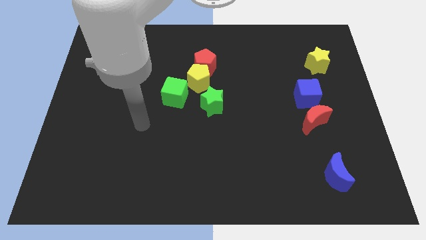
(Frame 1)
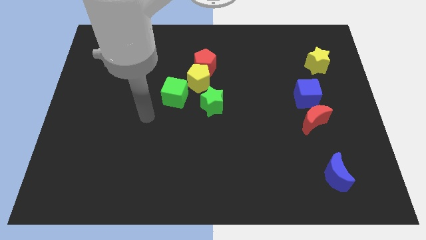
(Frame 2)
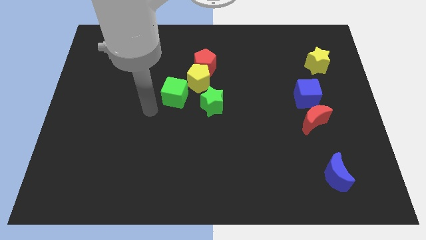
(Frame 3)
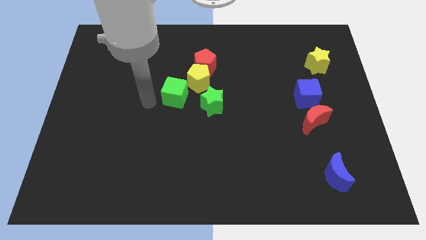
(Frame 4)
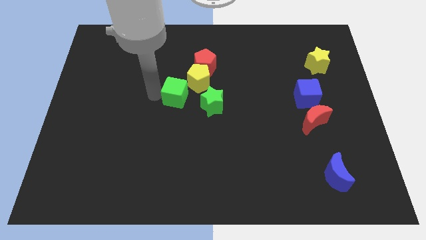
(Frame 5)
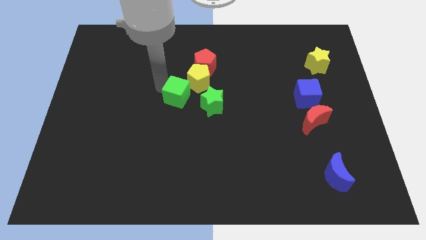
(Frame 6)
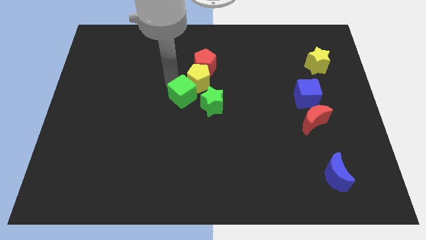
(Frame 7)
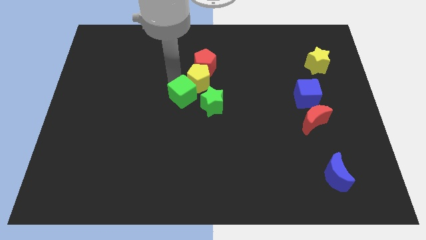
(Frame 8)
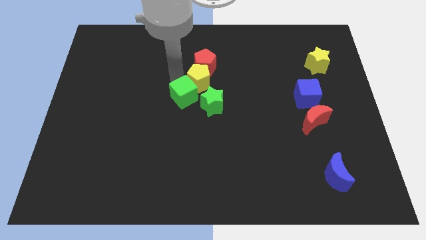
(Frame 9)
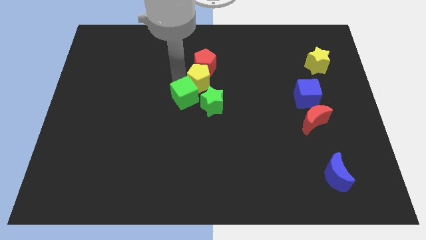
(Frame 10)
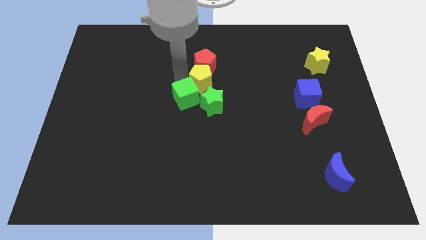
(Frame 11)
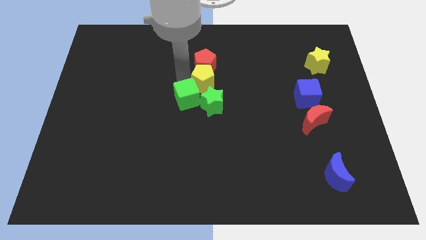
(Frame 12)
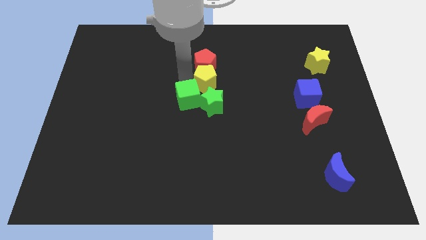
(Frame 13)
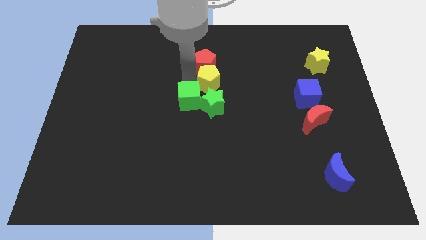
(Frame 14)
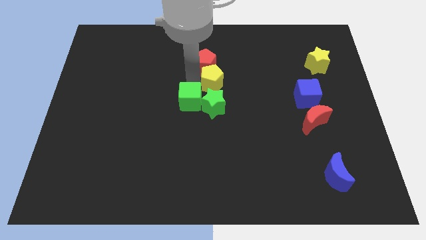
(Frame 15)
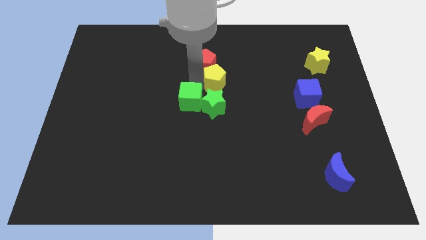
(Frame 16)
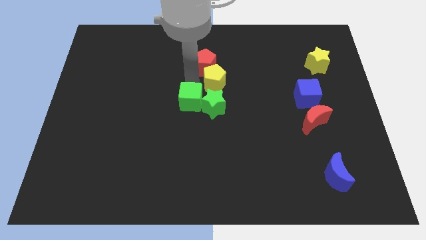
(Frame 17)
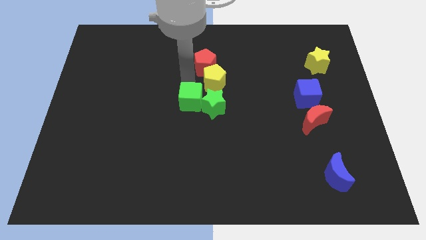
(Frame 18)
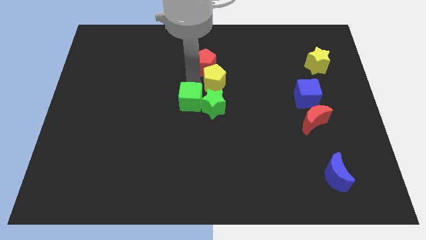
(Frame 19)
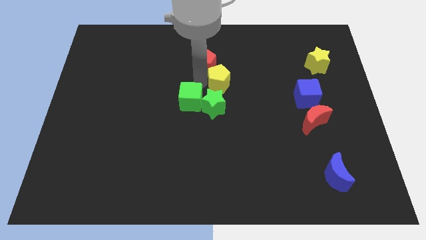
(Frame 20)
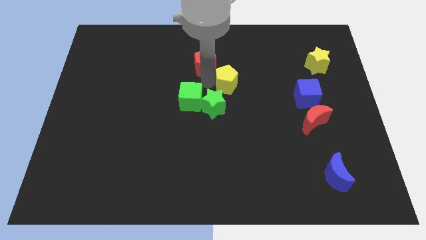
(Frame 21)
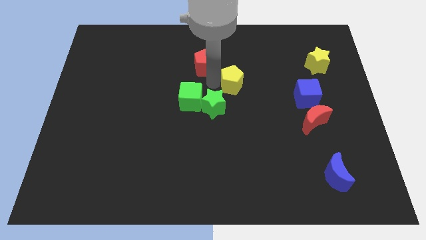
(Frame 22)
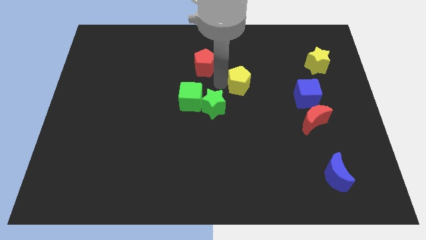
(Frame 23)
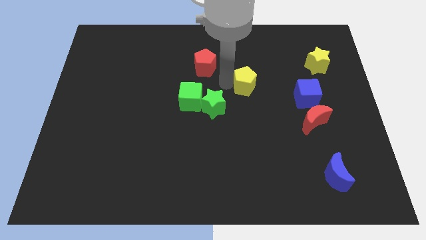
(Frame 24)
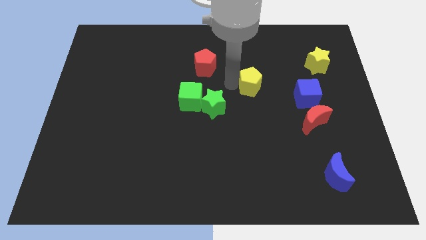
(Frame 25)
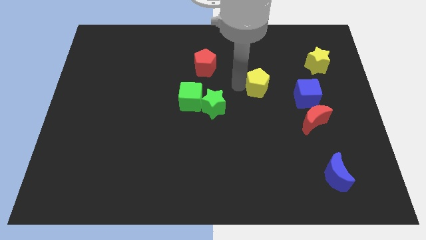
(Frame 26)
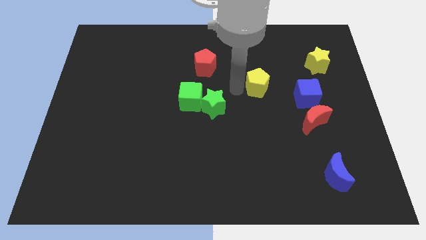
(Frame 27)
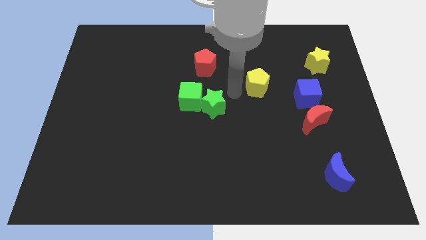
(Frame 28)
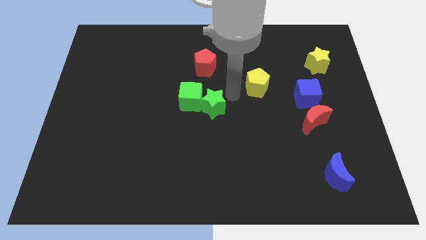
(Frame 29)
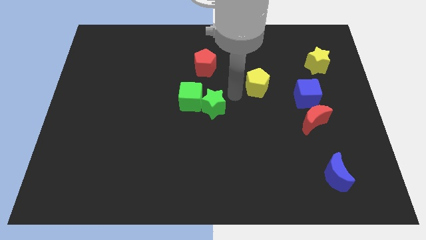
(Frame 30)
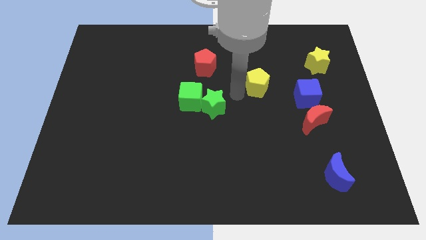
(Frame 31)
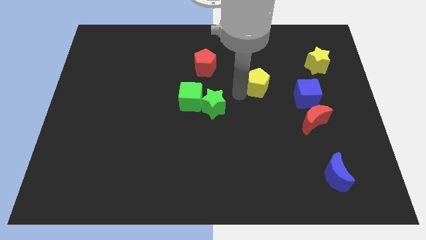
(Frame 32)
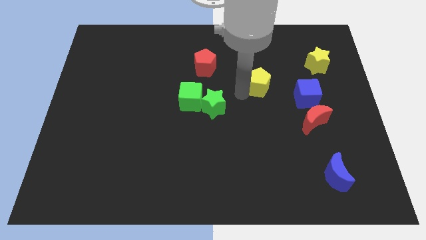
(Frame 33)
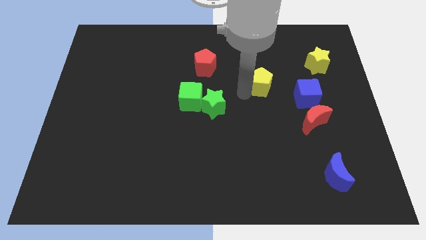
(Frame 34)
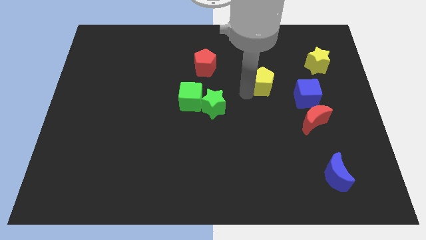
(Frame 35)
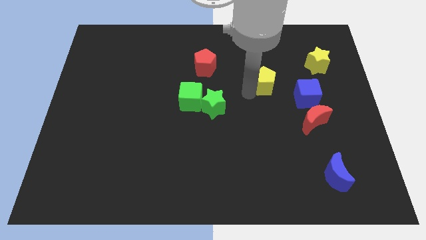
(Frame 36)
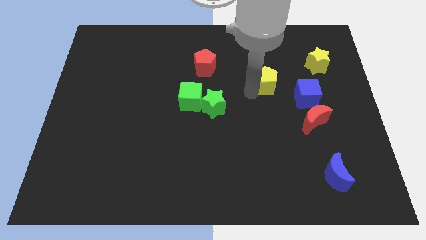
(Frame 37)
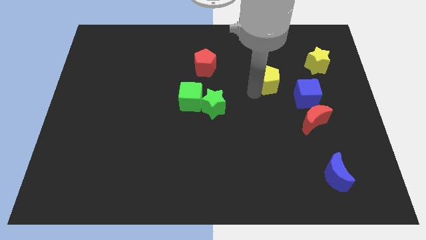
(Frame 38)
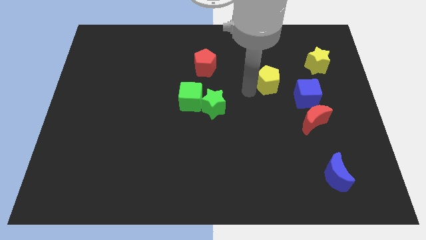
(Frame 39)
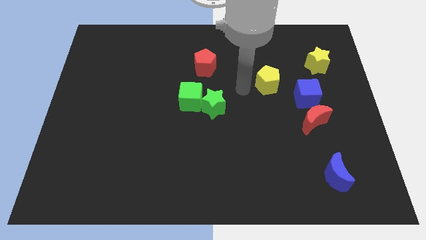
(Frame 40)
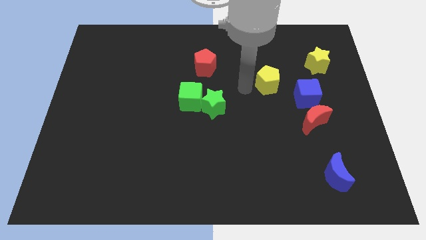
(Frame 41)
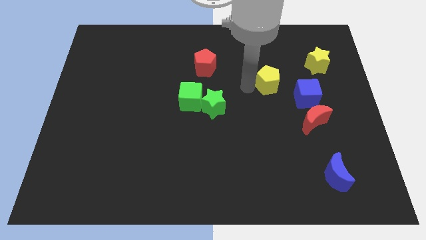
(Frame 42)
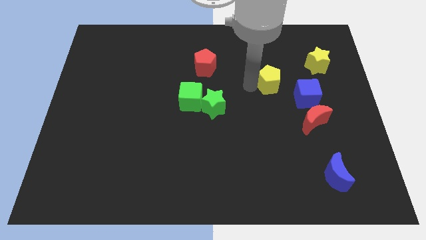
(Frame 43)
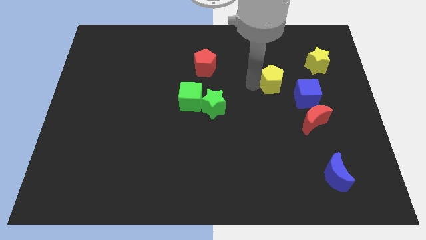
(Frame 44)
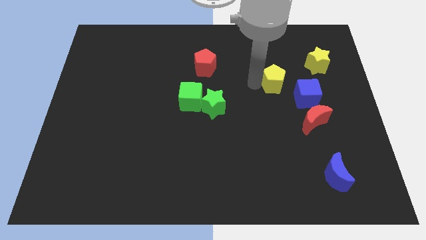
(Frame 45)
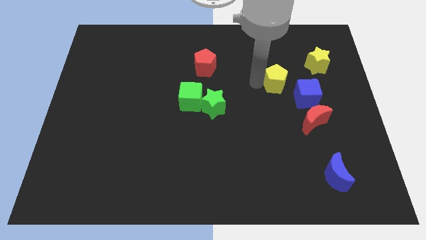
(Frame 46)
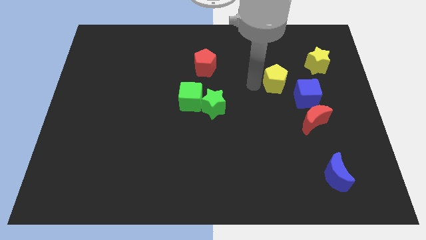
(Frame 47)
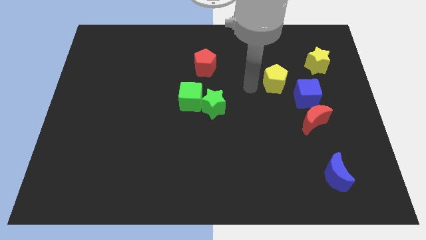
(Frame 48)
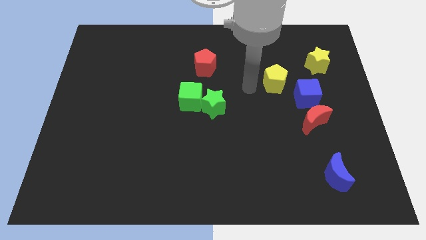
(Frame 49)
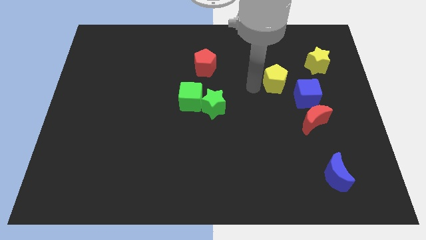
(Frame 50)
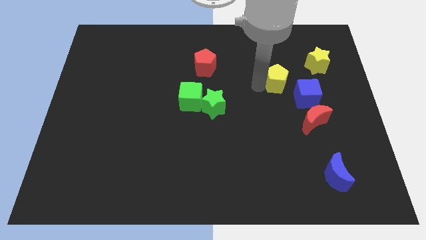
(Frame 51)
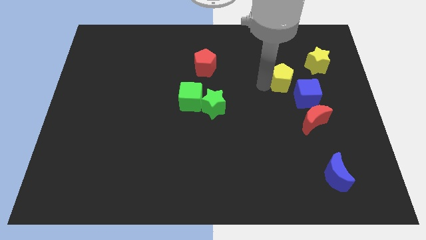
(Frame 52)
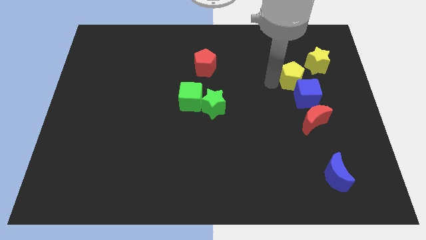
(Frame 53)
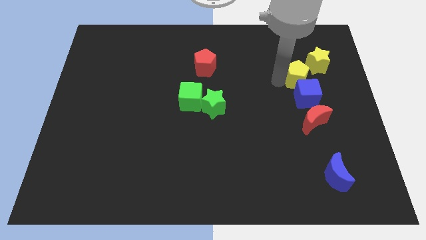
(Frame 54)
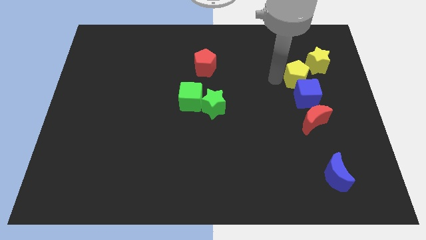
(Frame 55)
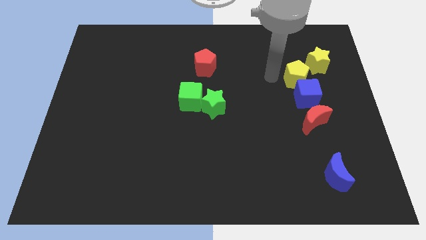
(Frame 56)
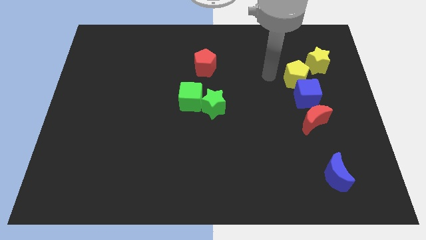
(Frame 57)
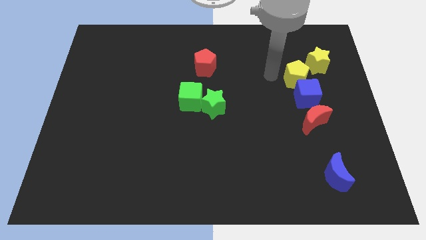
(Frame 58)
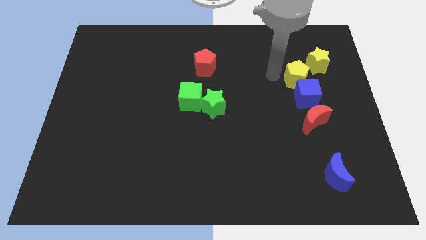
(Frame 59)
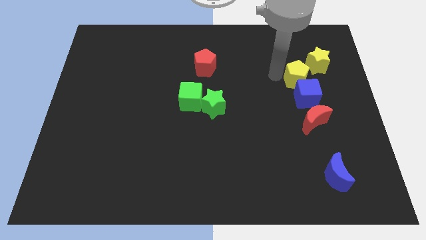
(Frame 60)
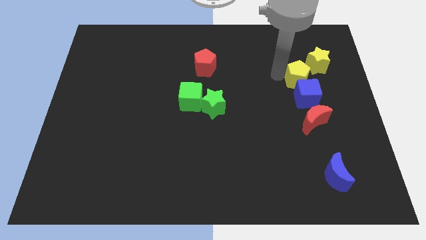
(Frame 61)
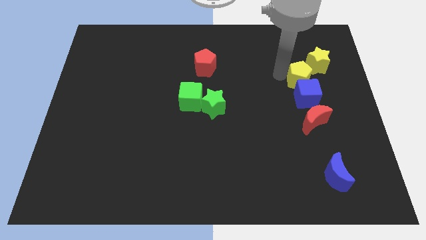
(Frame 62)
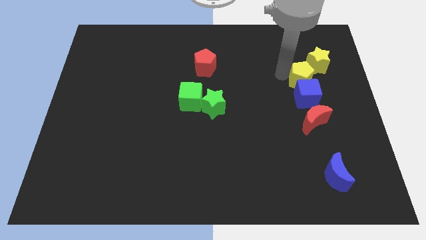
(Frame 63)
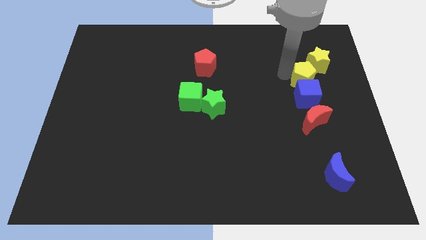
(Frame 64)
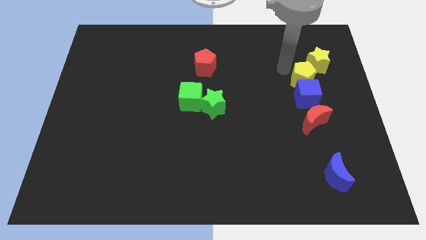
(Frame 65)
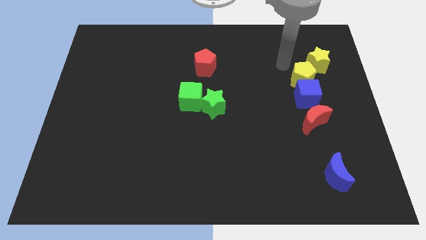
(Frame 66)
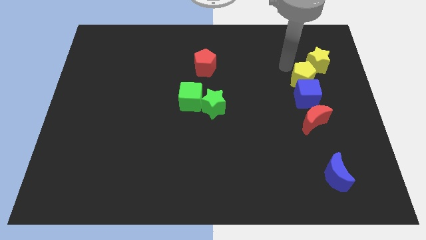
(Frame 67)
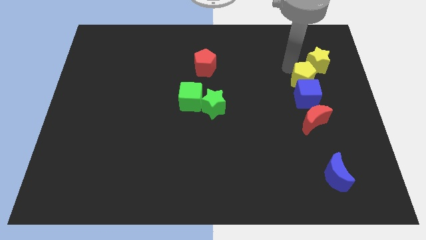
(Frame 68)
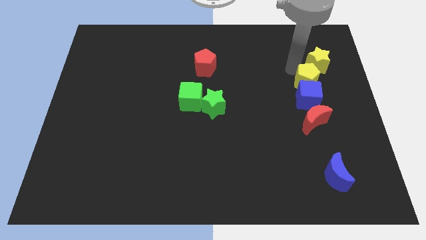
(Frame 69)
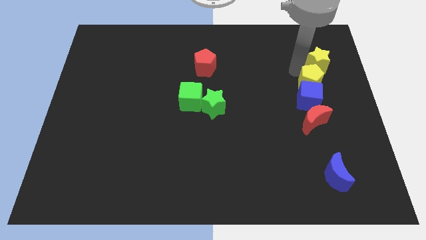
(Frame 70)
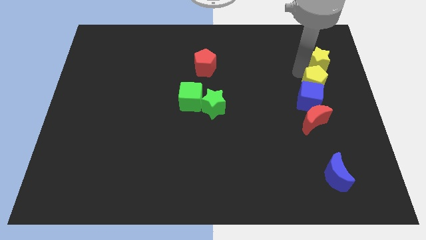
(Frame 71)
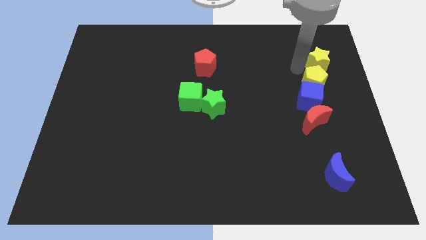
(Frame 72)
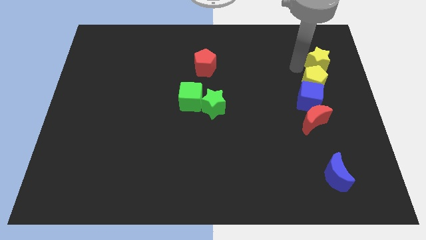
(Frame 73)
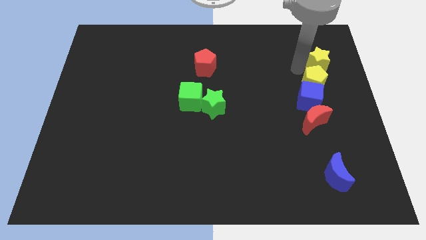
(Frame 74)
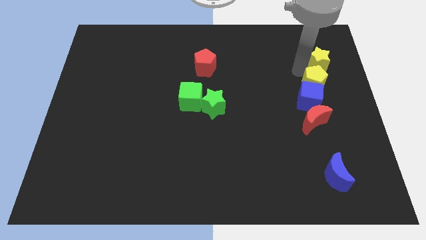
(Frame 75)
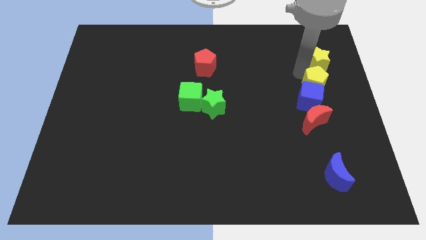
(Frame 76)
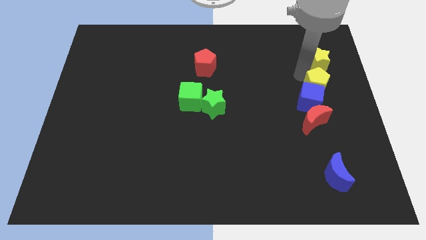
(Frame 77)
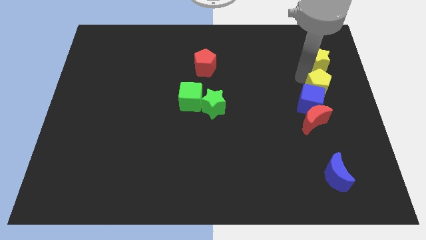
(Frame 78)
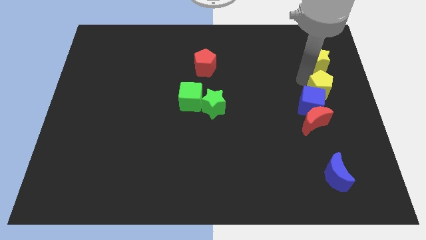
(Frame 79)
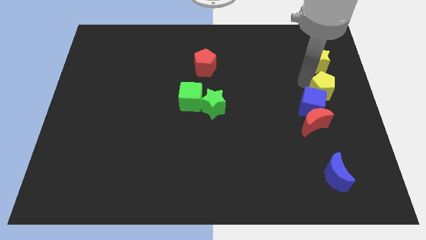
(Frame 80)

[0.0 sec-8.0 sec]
push the yellow pentagon to the top right side of the red moon
